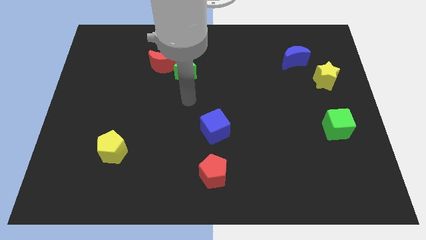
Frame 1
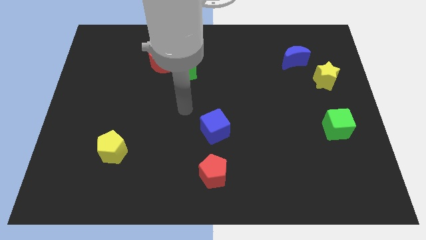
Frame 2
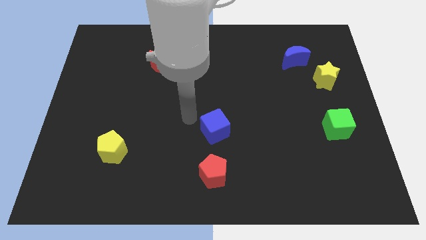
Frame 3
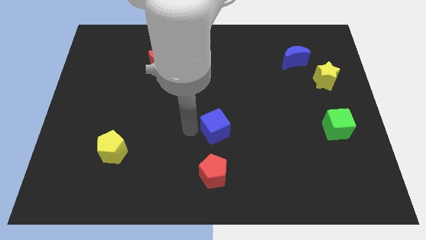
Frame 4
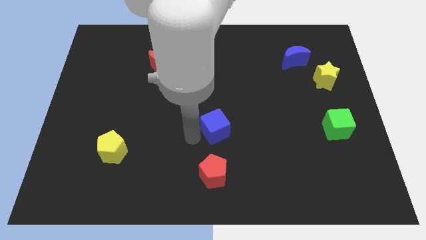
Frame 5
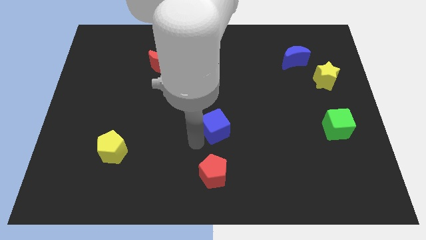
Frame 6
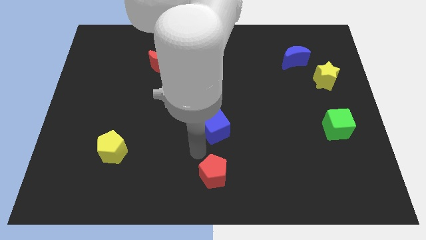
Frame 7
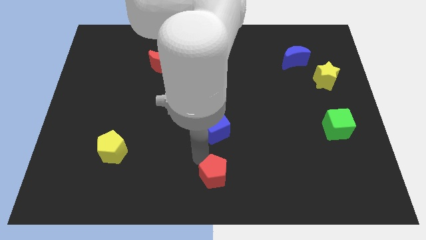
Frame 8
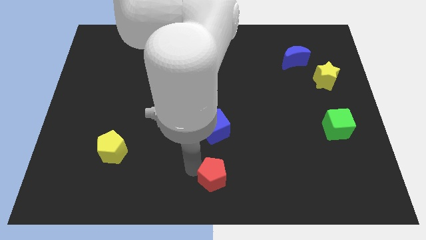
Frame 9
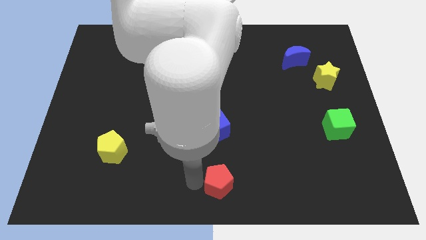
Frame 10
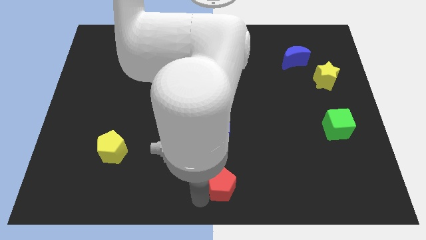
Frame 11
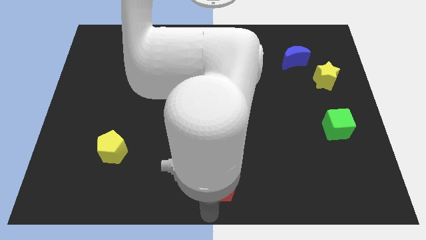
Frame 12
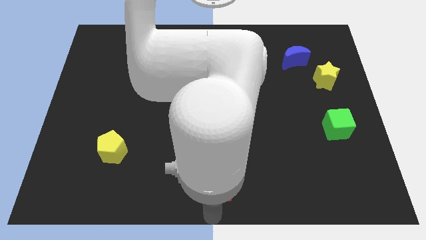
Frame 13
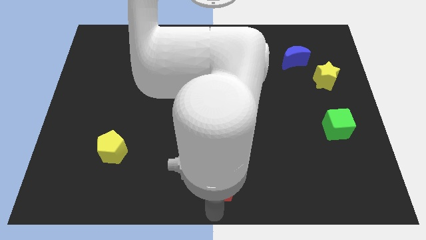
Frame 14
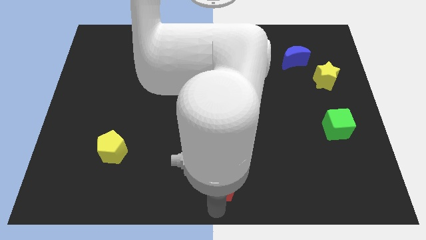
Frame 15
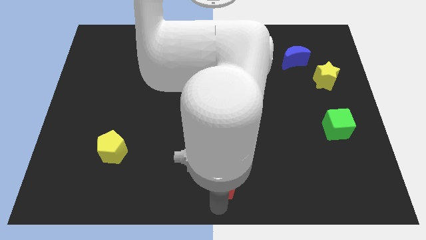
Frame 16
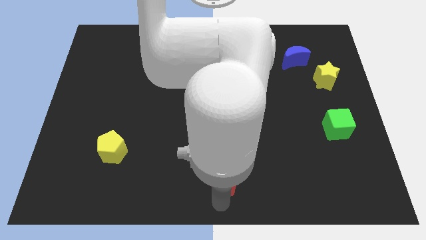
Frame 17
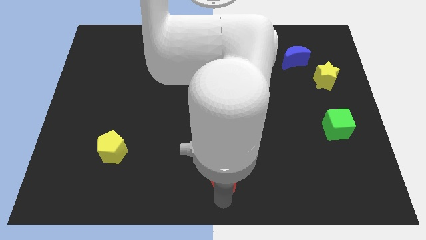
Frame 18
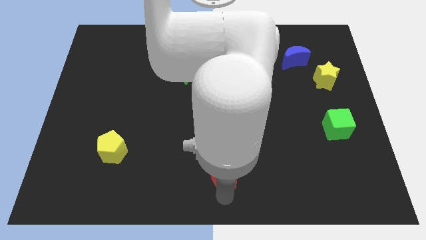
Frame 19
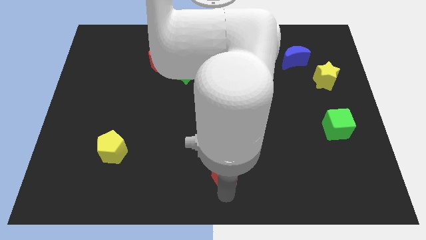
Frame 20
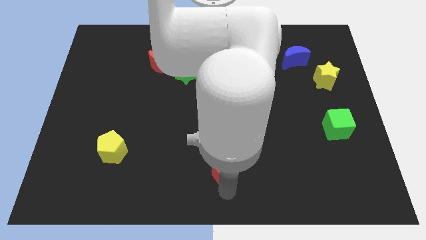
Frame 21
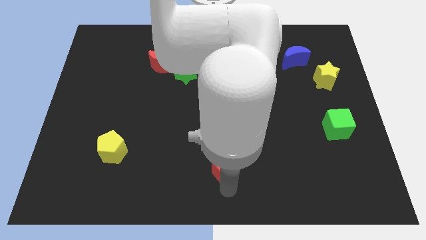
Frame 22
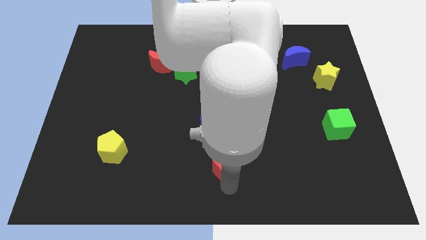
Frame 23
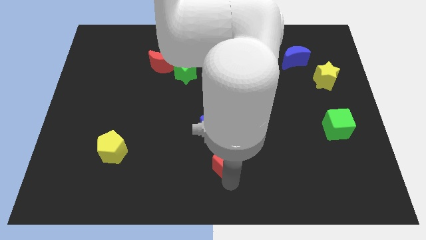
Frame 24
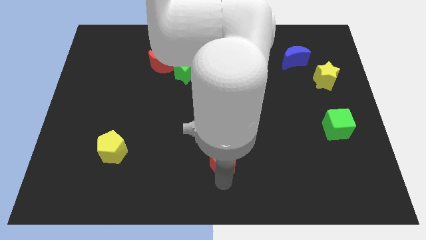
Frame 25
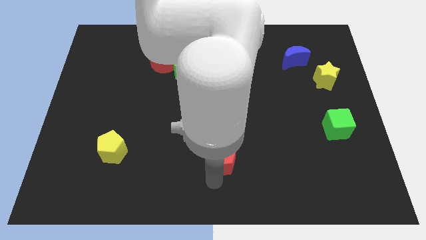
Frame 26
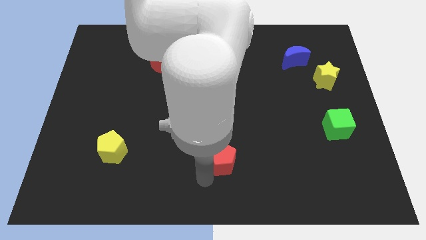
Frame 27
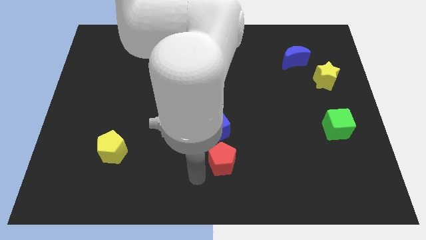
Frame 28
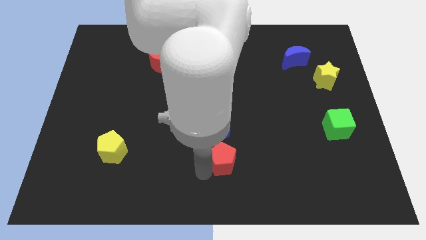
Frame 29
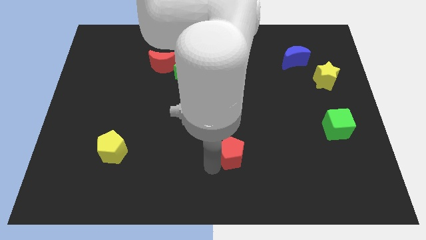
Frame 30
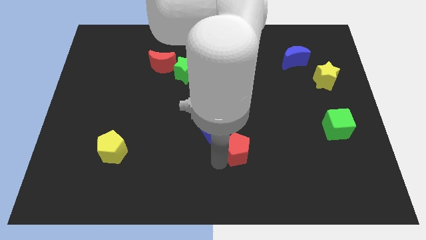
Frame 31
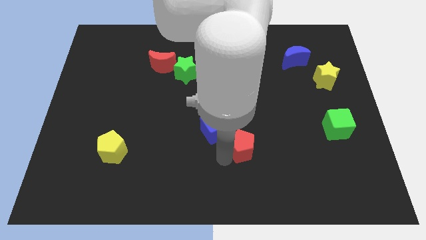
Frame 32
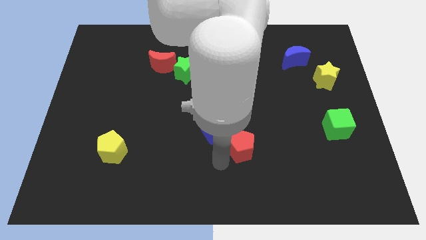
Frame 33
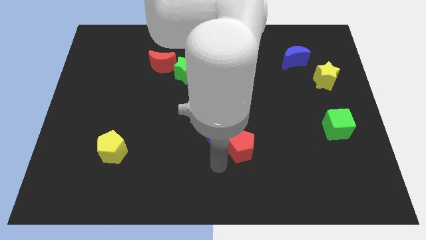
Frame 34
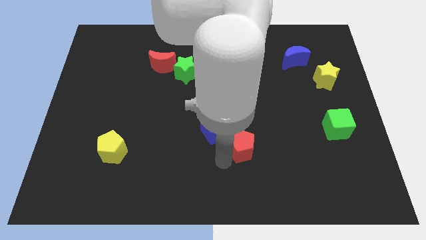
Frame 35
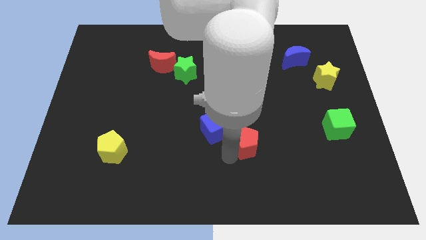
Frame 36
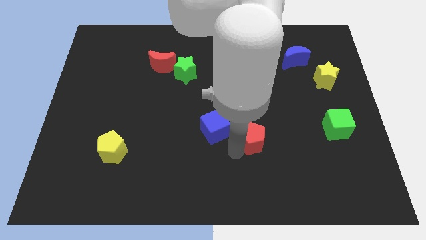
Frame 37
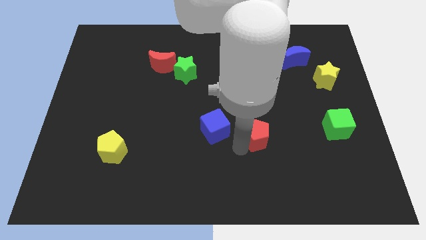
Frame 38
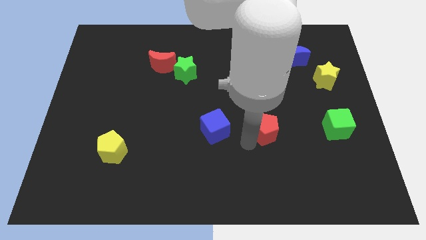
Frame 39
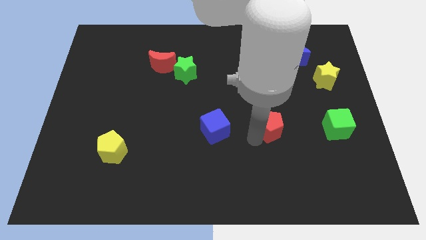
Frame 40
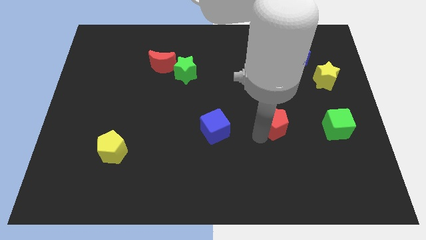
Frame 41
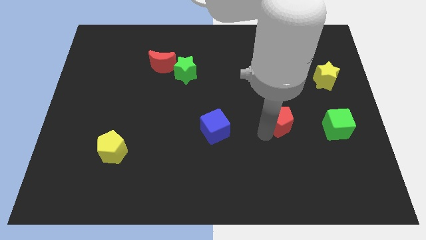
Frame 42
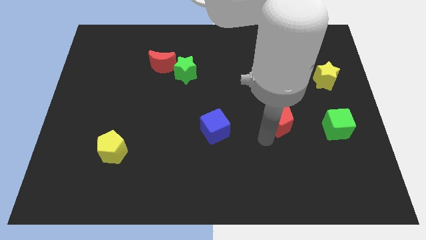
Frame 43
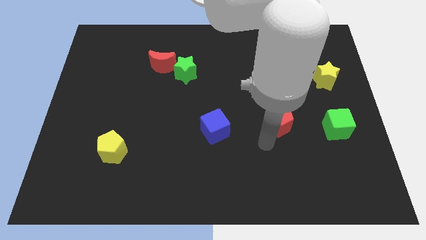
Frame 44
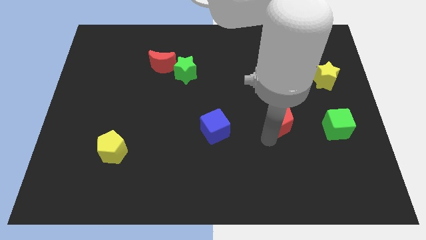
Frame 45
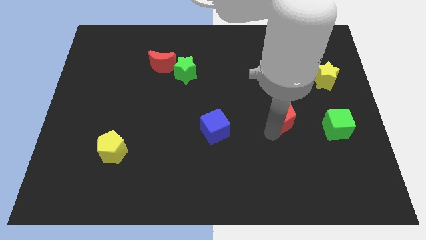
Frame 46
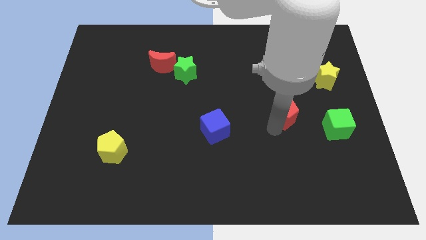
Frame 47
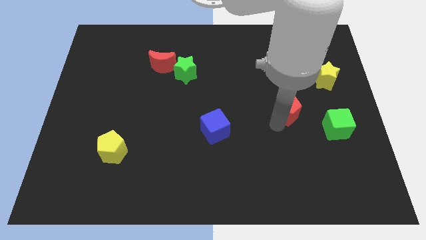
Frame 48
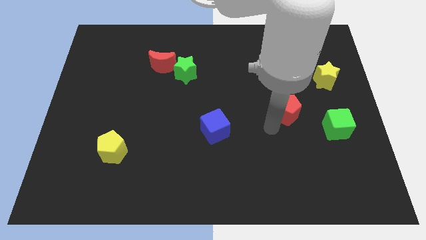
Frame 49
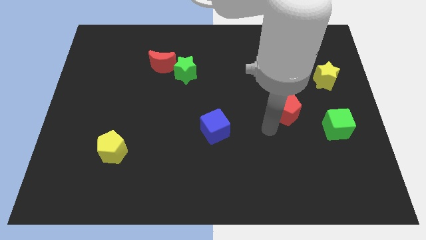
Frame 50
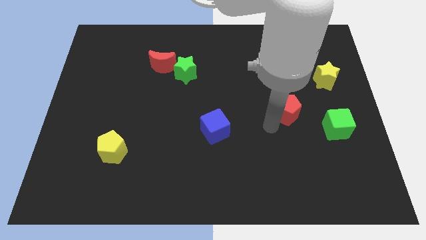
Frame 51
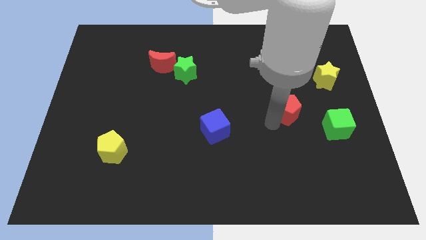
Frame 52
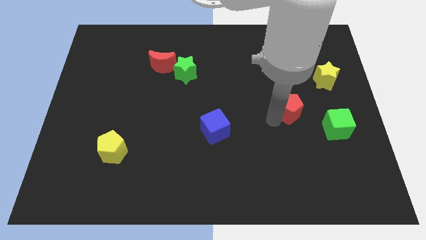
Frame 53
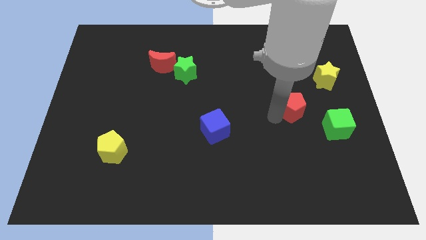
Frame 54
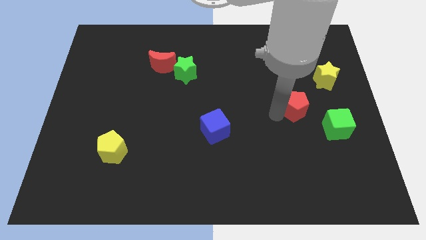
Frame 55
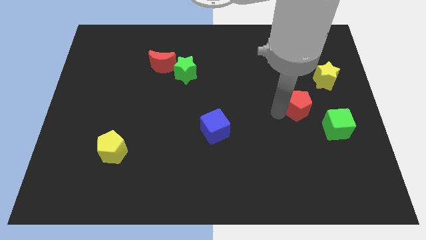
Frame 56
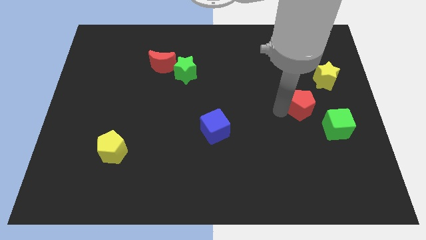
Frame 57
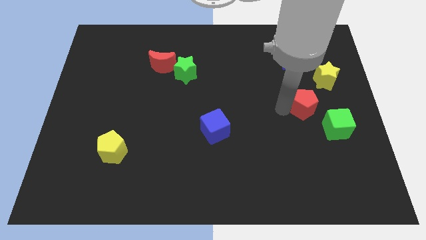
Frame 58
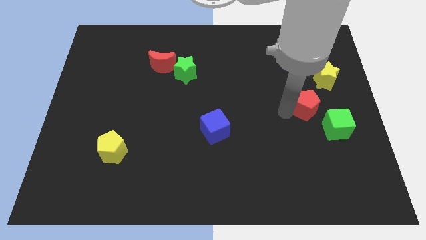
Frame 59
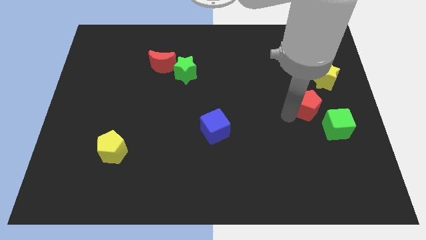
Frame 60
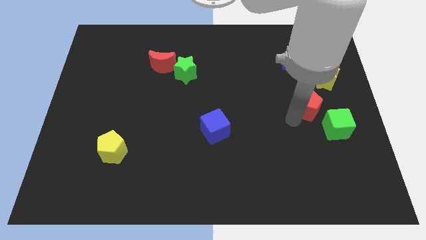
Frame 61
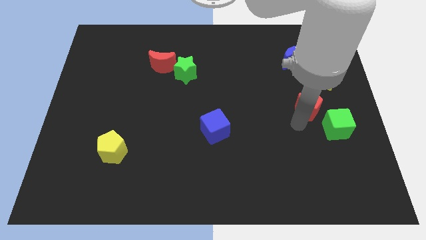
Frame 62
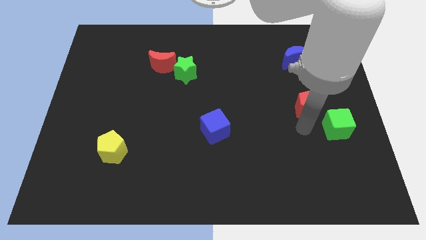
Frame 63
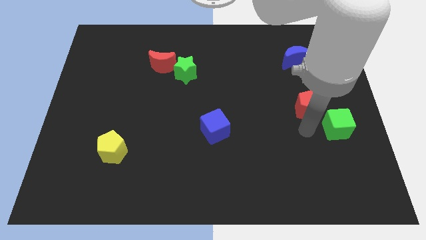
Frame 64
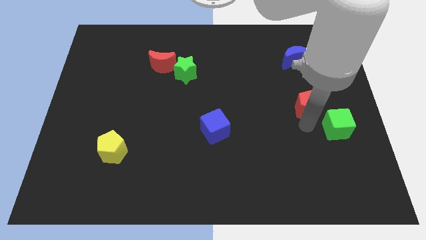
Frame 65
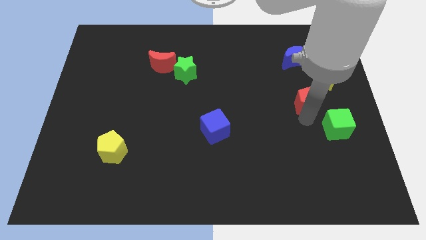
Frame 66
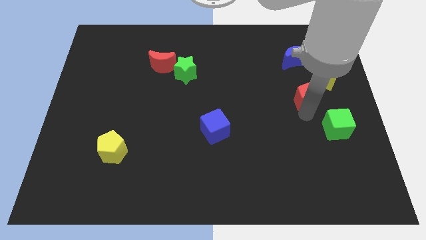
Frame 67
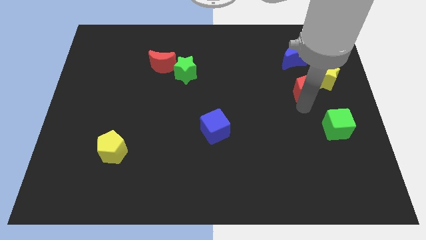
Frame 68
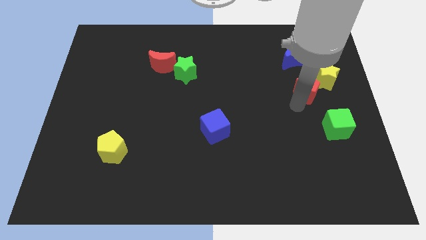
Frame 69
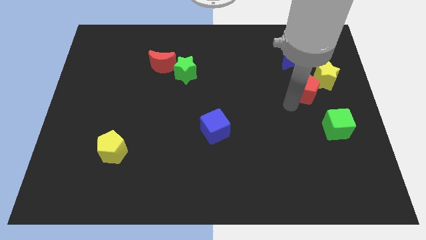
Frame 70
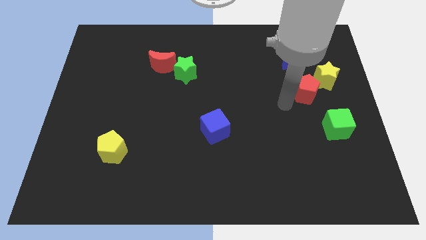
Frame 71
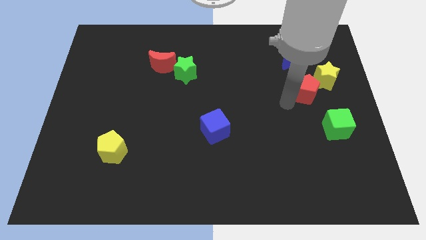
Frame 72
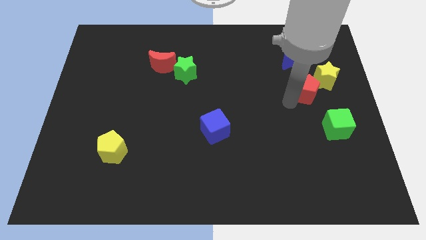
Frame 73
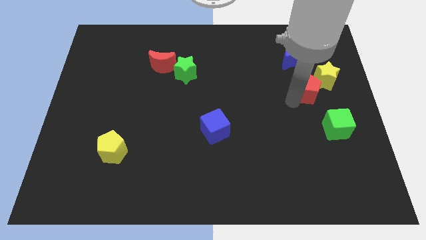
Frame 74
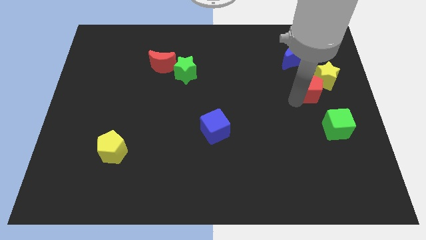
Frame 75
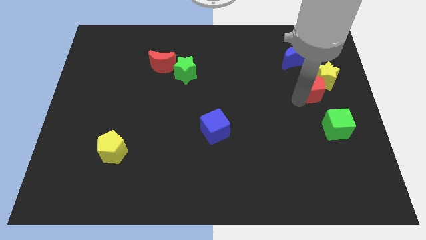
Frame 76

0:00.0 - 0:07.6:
move the red pentagon to the yellow star

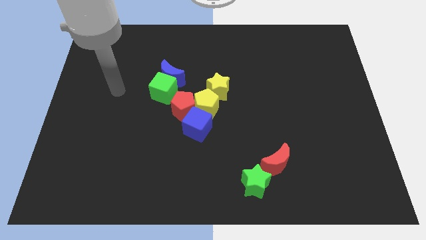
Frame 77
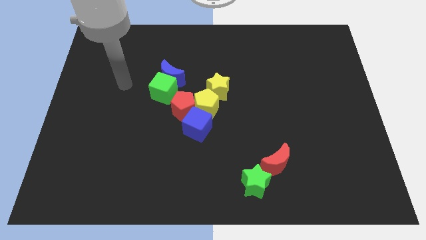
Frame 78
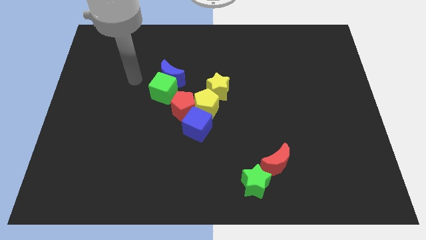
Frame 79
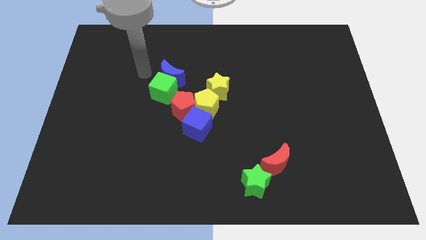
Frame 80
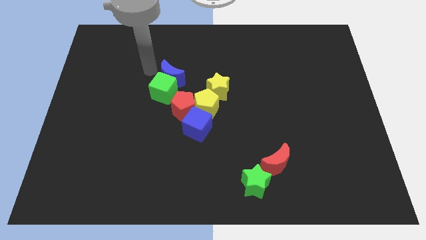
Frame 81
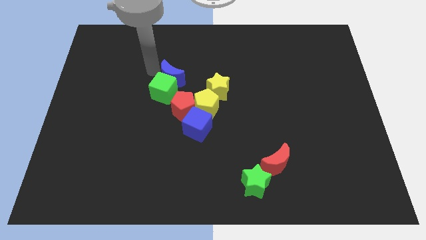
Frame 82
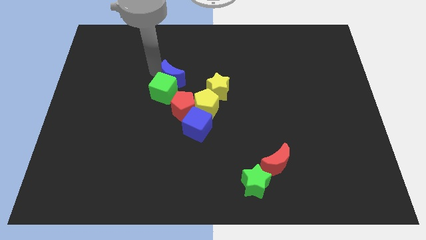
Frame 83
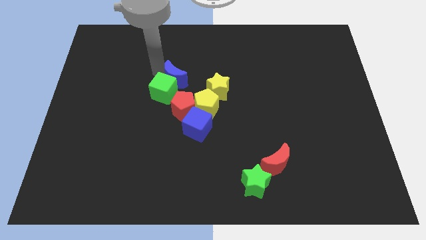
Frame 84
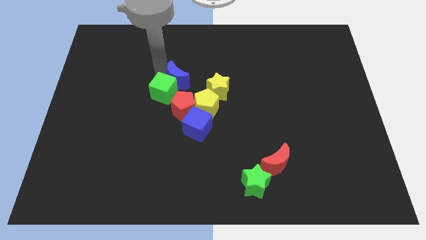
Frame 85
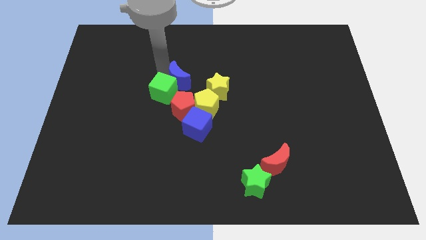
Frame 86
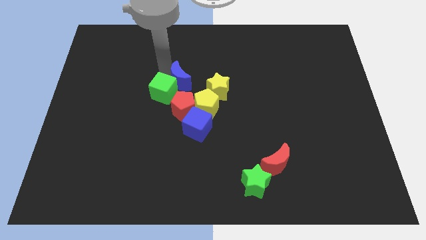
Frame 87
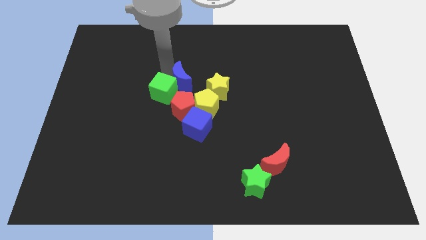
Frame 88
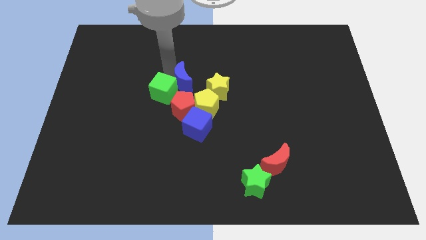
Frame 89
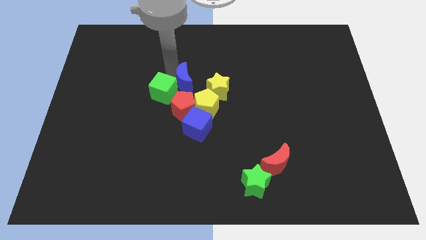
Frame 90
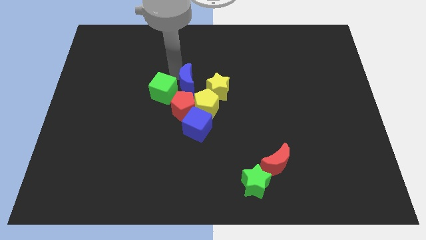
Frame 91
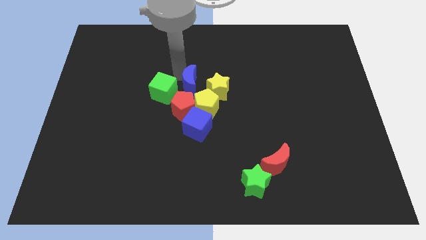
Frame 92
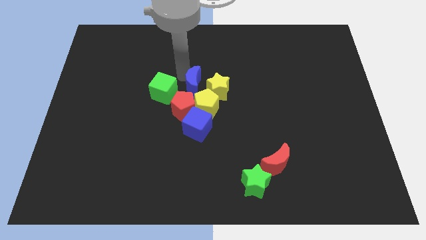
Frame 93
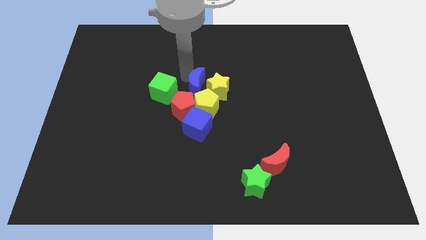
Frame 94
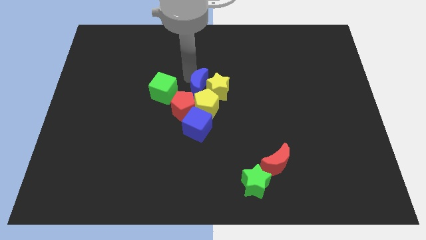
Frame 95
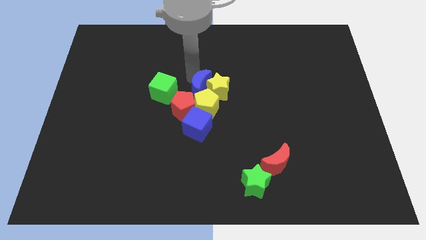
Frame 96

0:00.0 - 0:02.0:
push the blue moon next to the yellow pentagon
